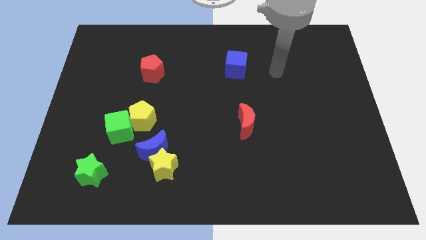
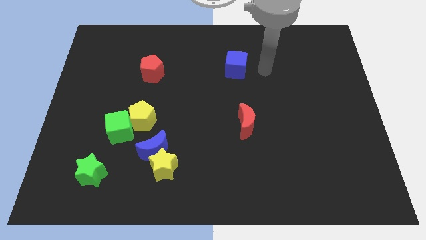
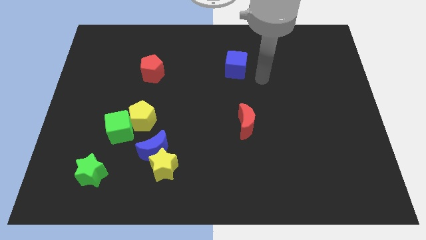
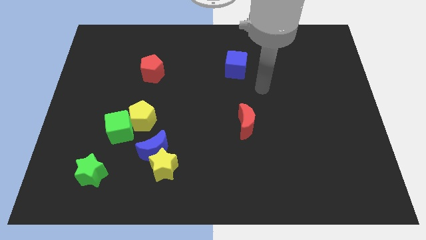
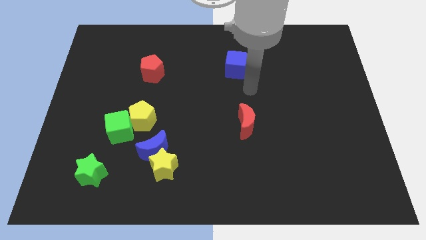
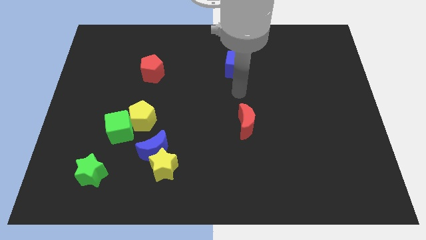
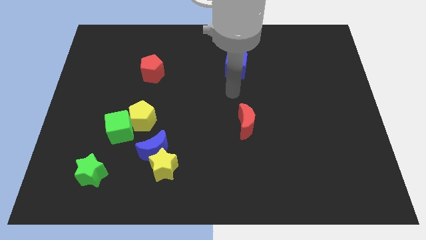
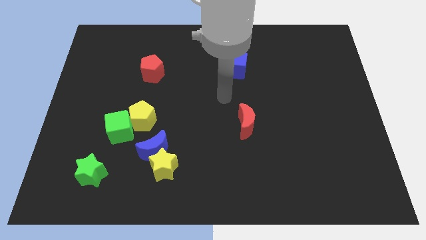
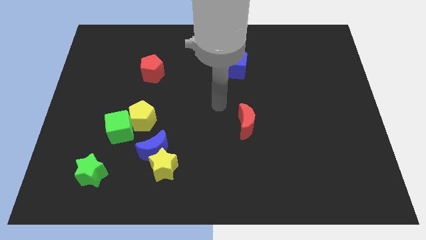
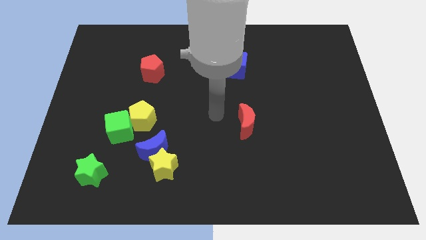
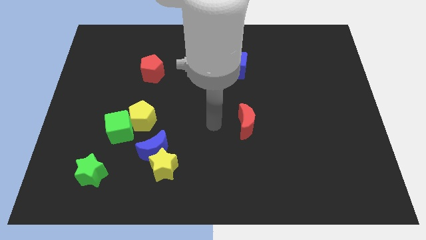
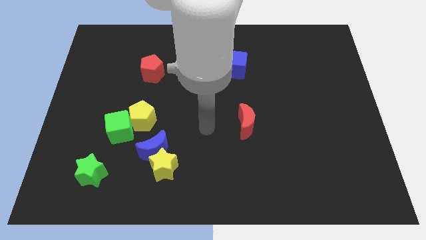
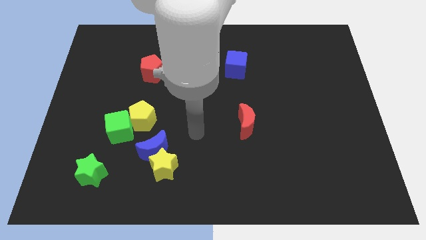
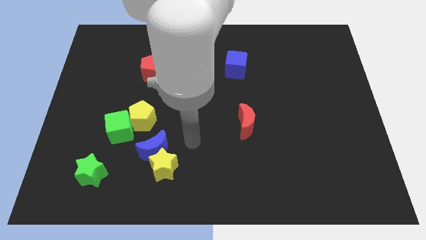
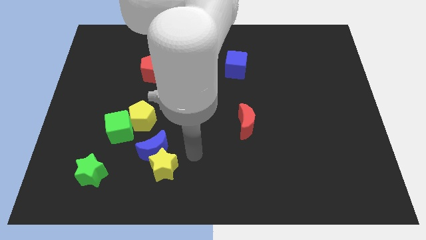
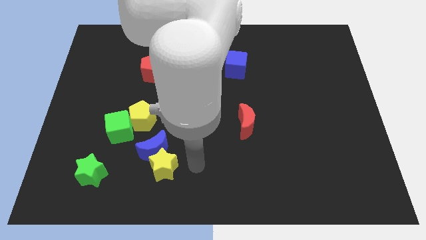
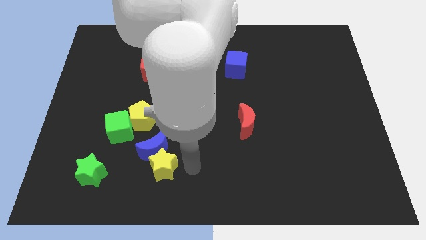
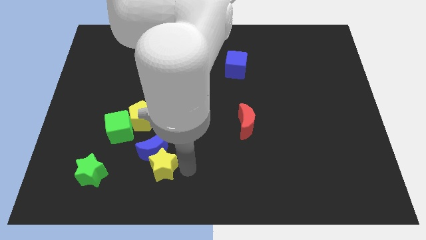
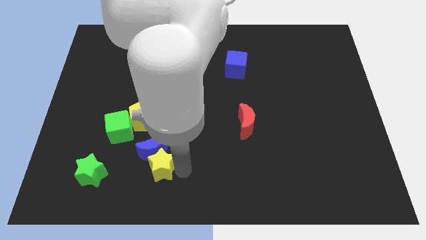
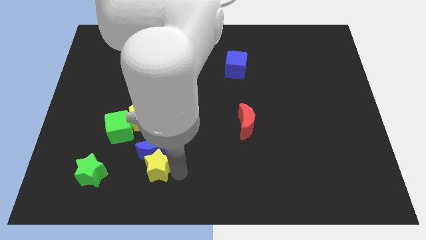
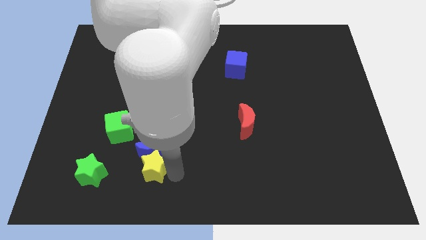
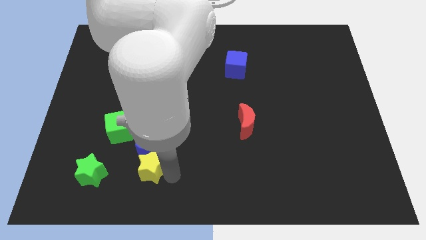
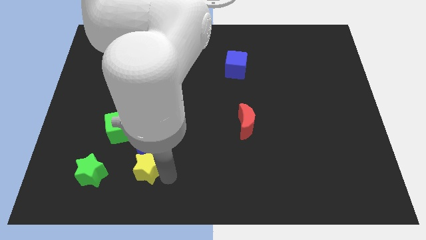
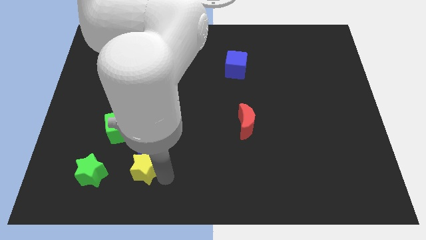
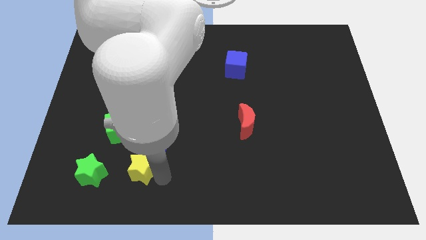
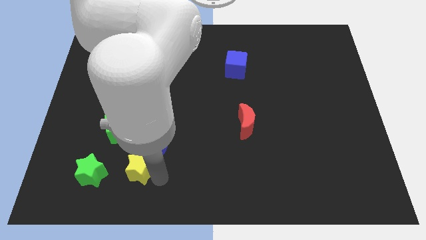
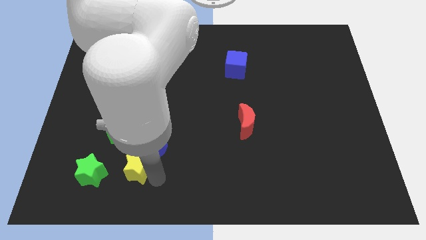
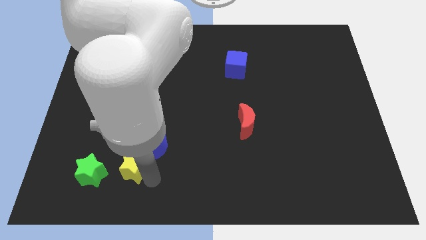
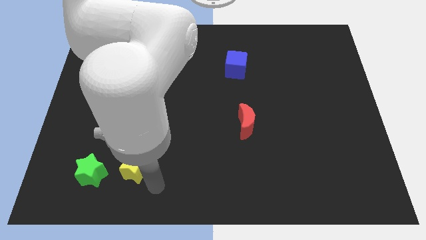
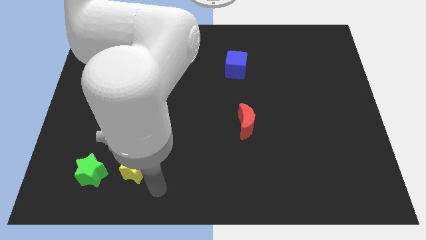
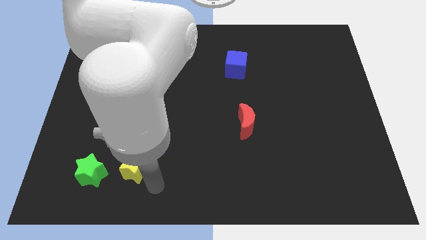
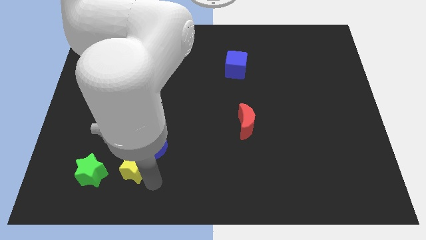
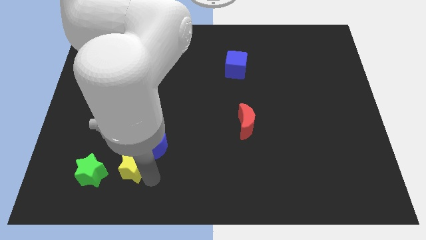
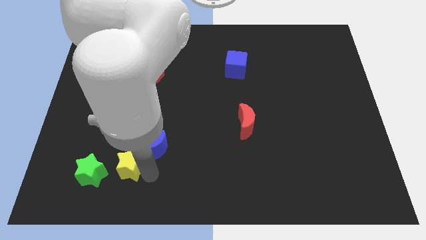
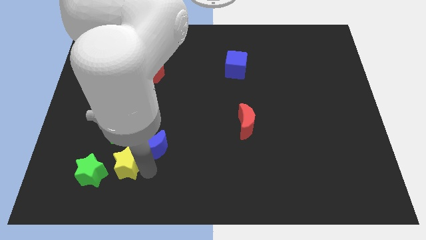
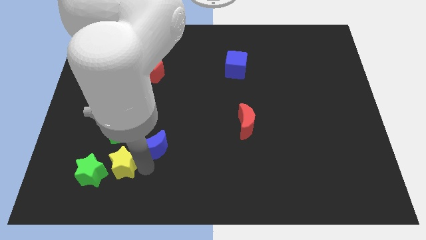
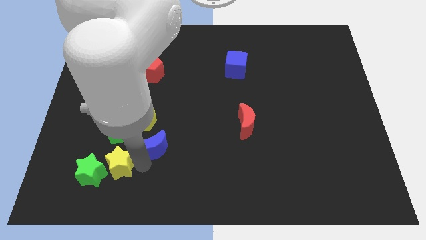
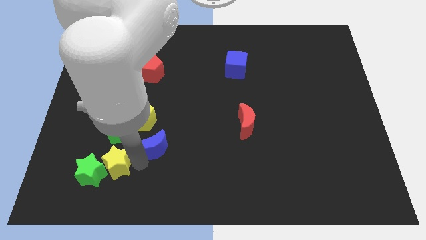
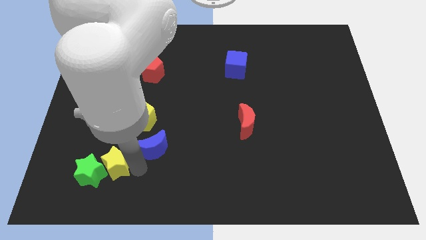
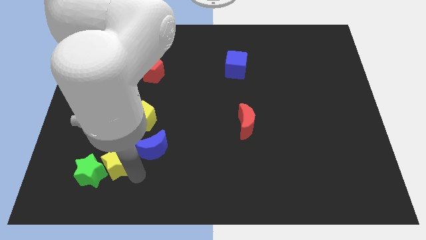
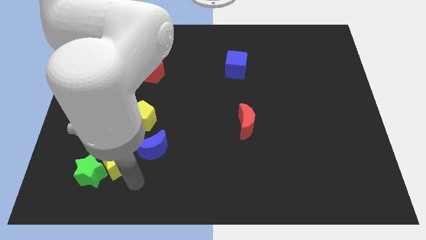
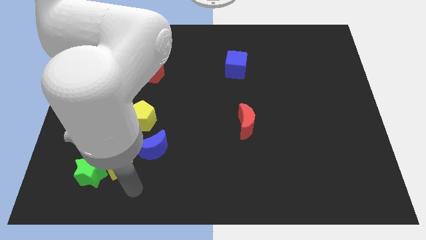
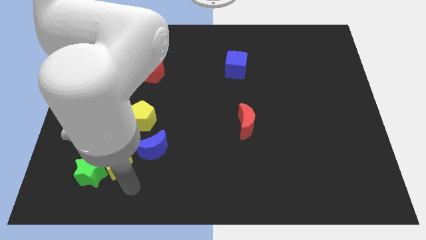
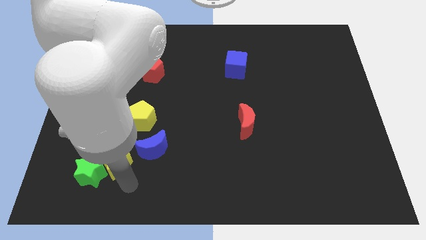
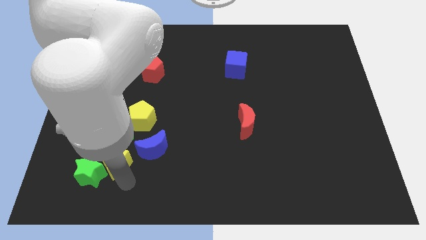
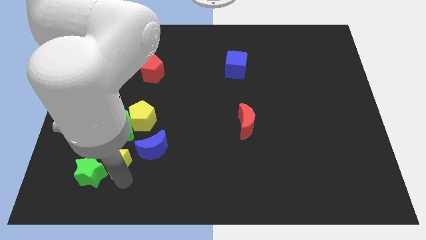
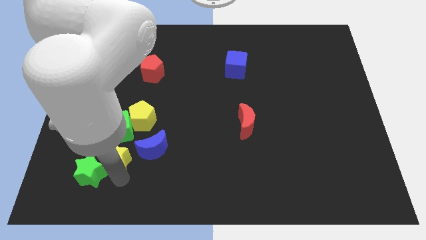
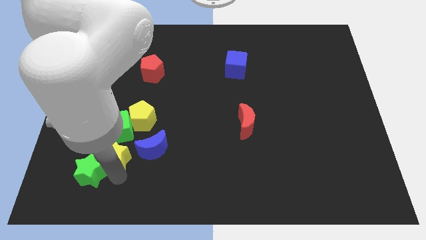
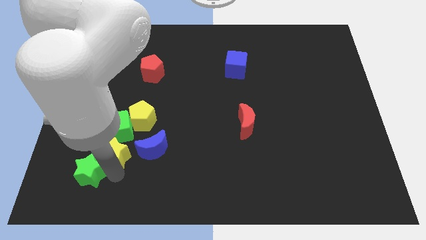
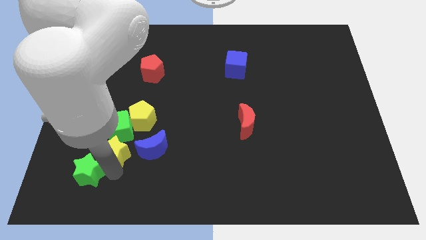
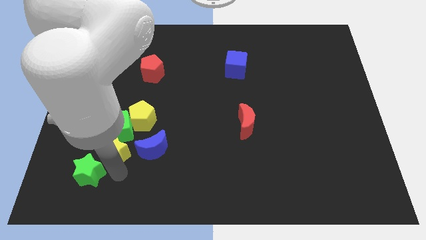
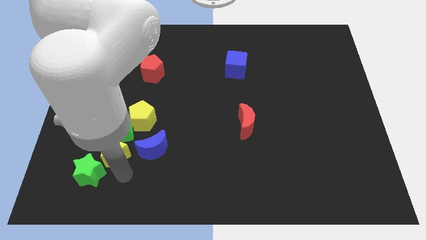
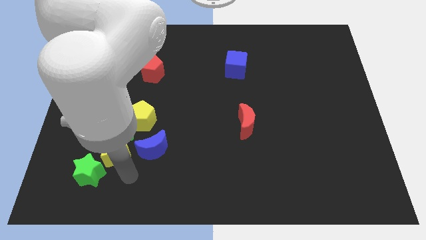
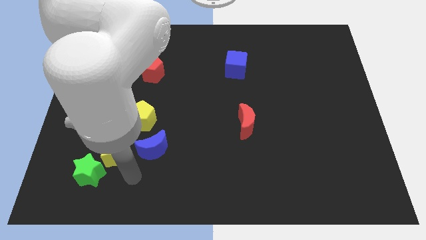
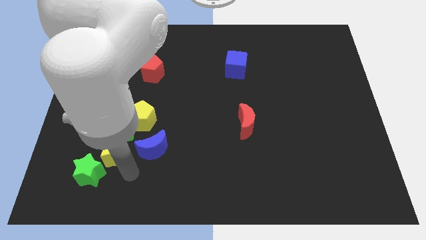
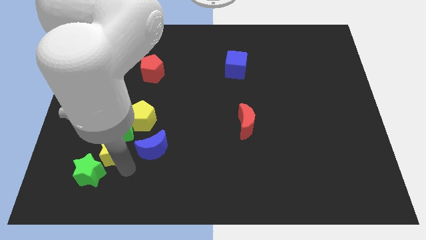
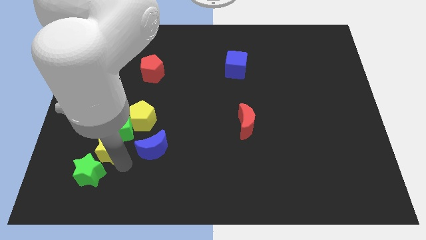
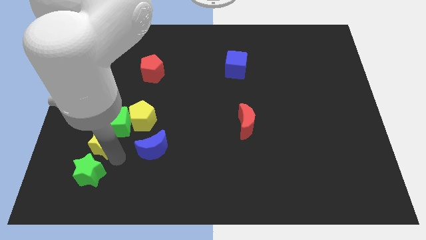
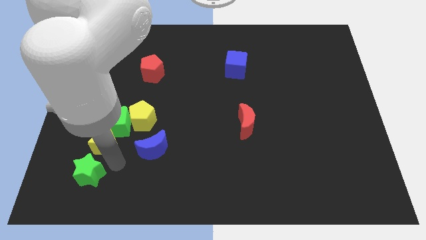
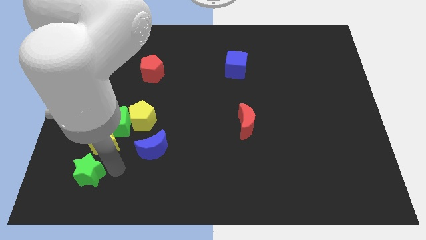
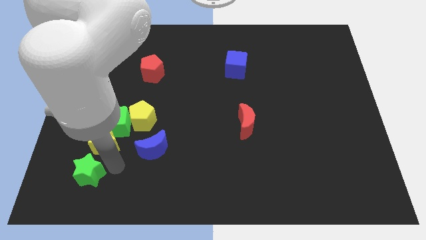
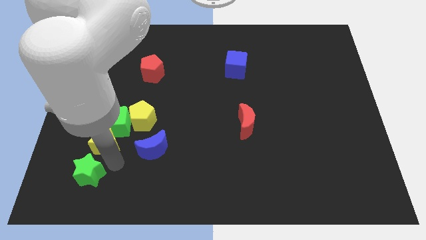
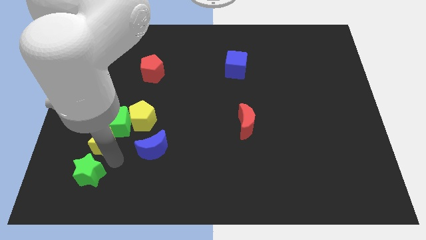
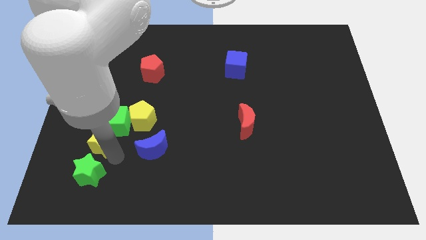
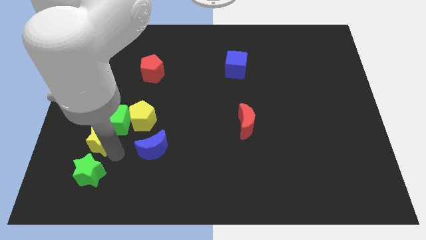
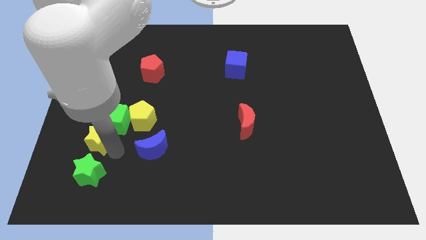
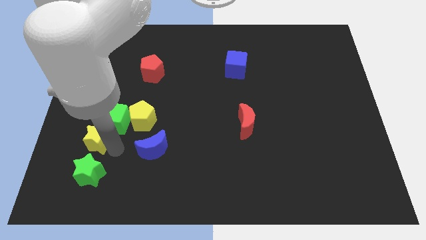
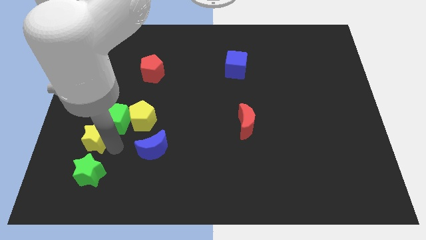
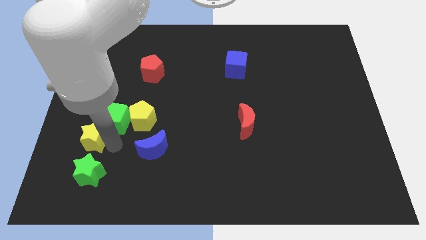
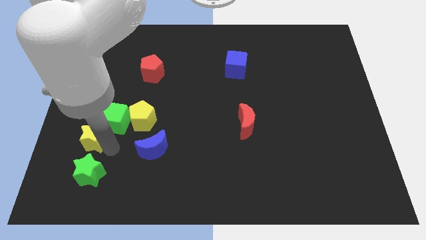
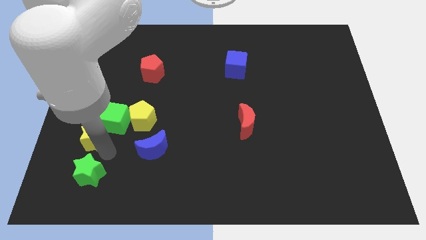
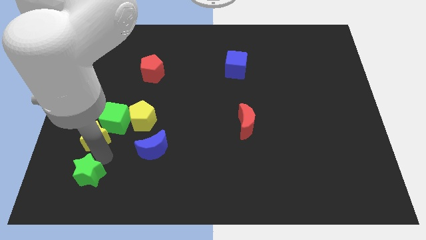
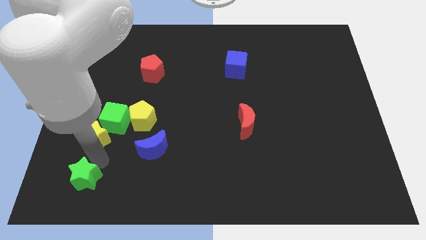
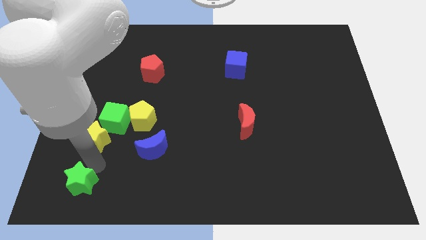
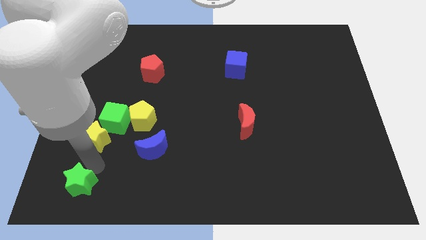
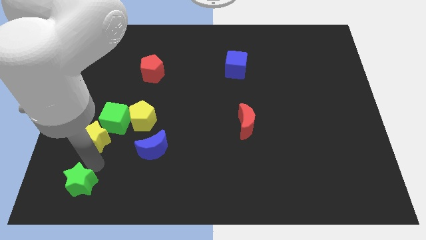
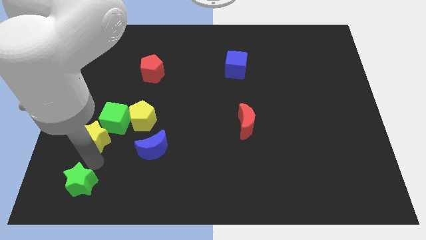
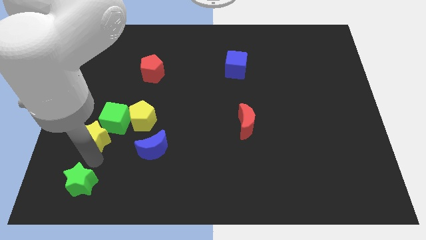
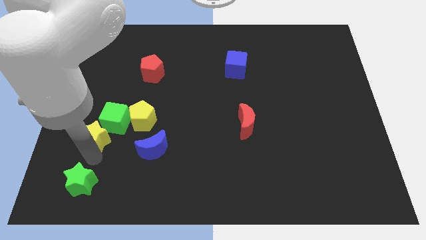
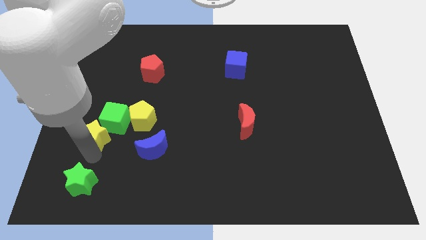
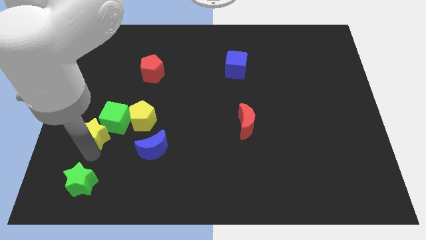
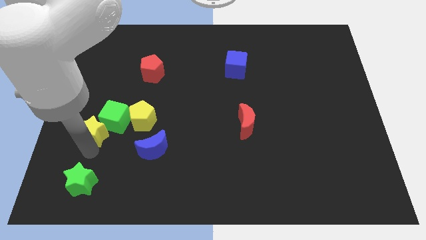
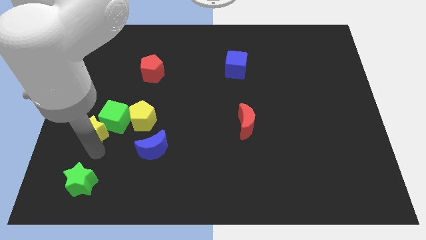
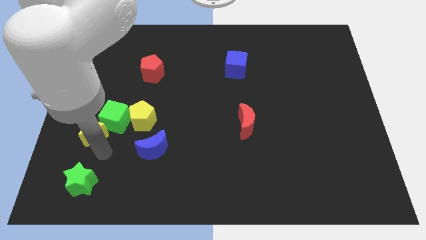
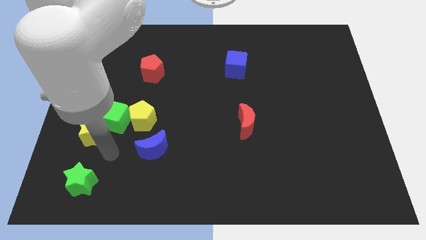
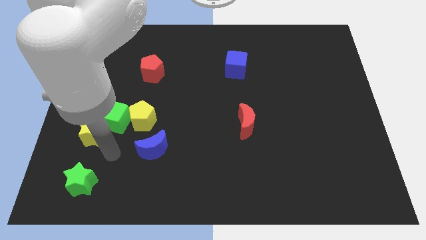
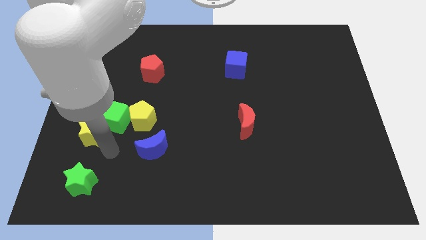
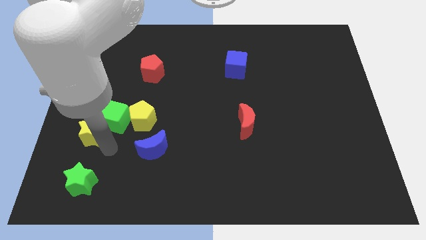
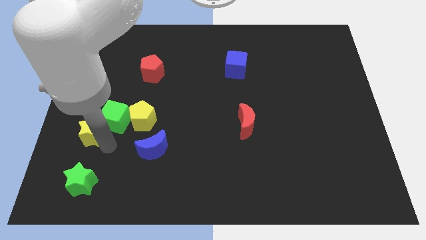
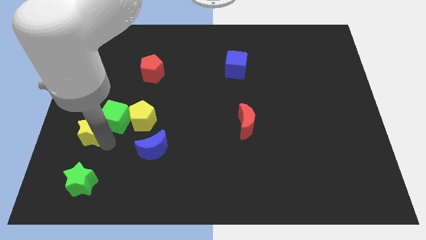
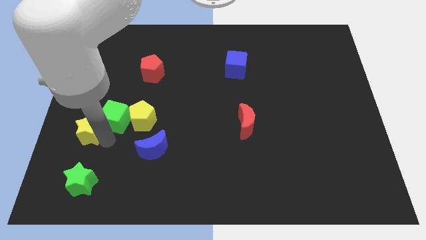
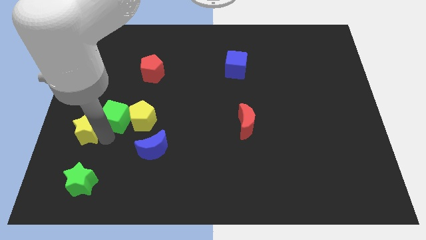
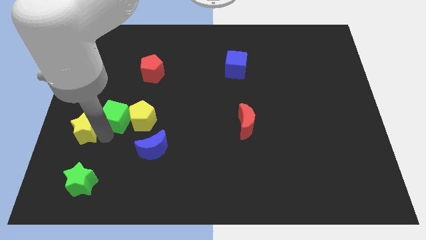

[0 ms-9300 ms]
slide the yellow star to the left side
